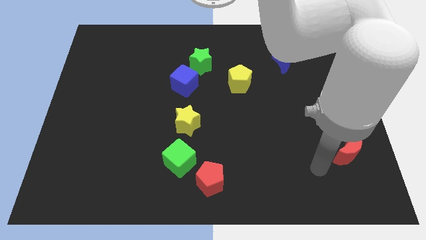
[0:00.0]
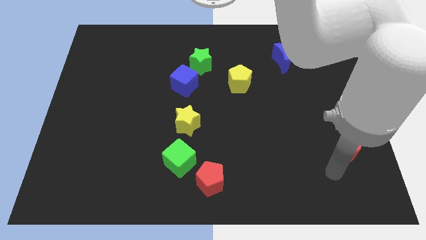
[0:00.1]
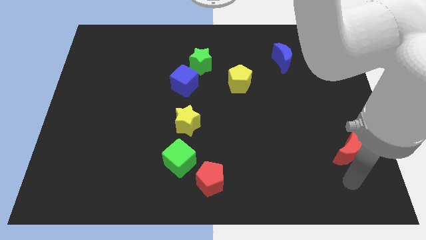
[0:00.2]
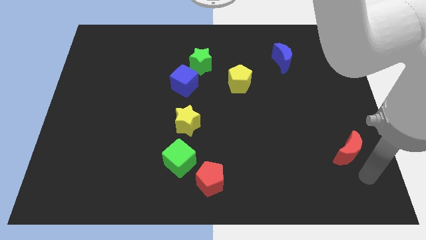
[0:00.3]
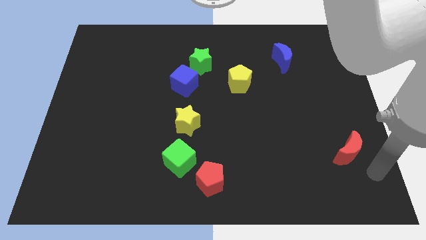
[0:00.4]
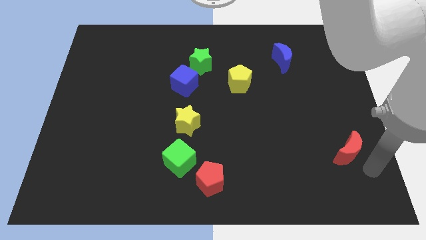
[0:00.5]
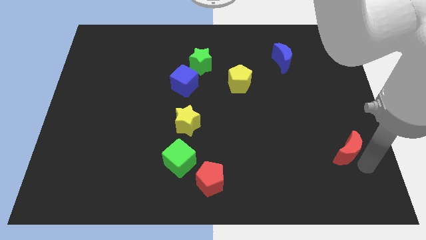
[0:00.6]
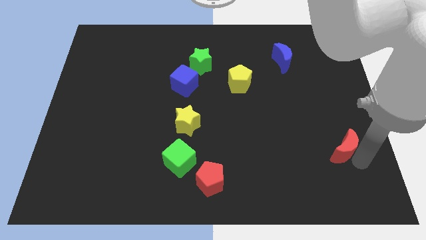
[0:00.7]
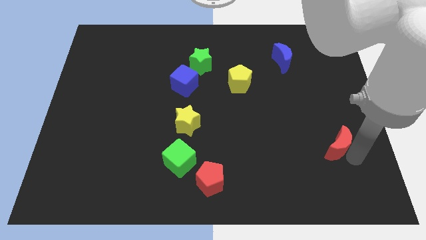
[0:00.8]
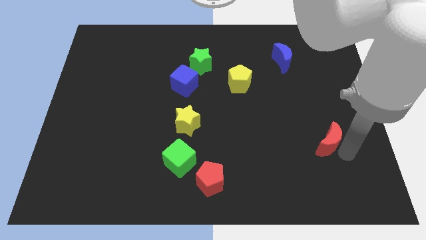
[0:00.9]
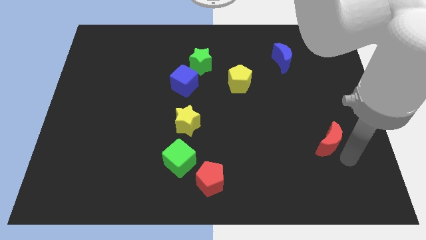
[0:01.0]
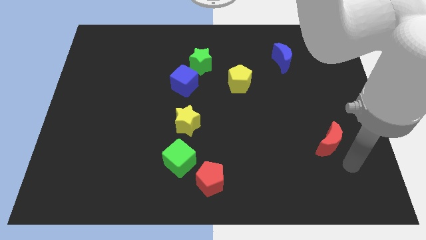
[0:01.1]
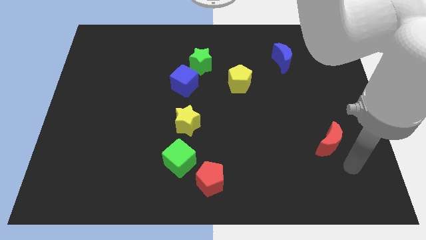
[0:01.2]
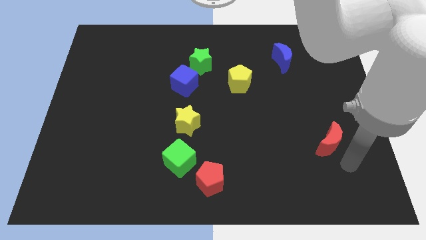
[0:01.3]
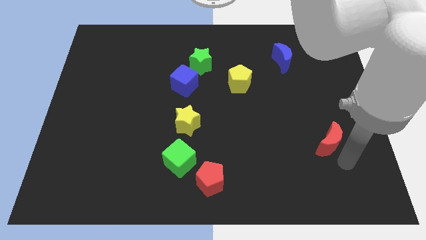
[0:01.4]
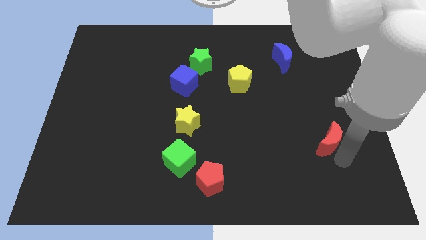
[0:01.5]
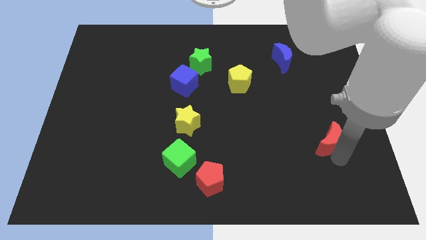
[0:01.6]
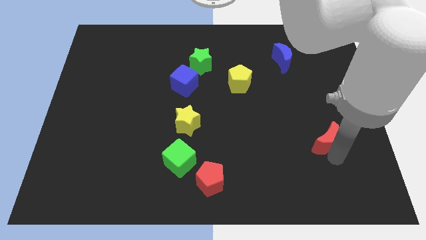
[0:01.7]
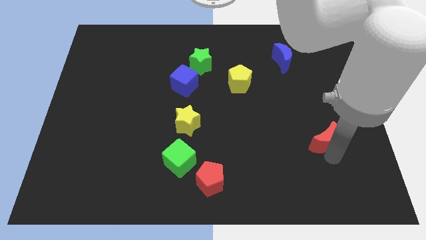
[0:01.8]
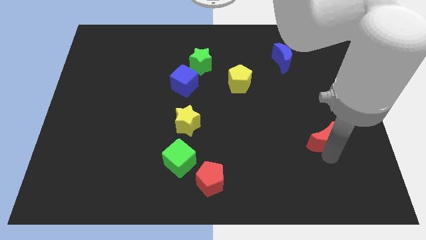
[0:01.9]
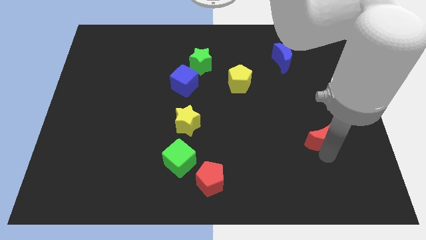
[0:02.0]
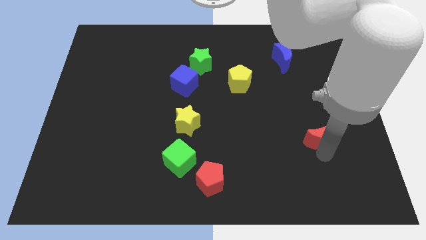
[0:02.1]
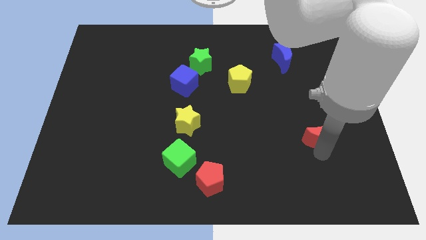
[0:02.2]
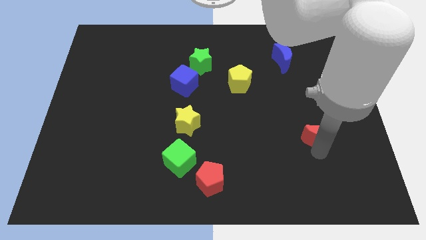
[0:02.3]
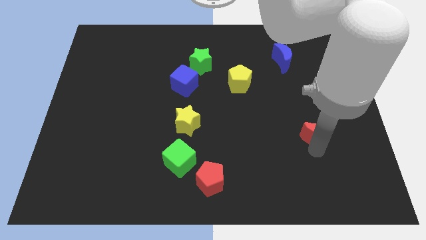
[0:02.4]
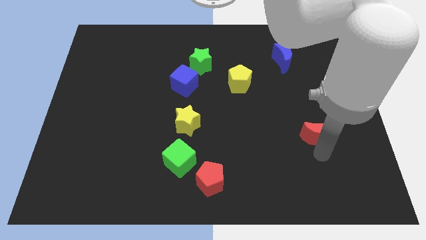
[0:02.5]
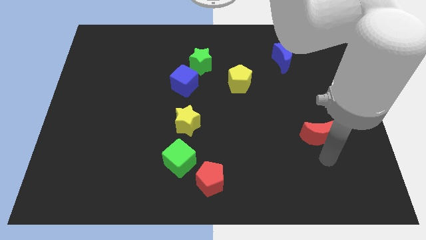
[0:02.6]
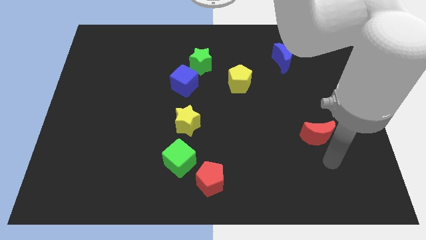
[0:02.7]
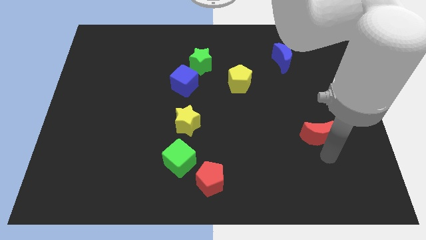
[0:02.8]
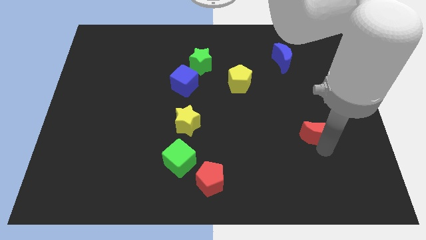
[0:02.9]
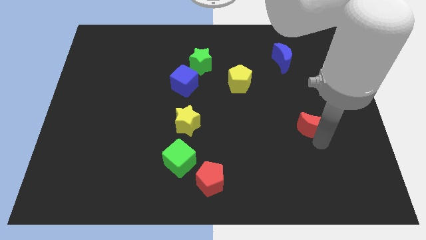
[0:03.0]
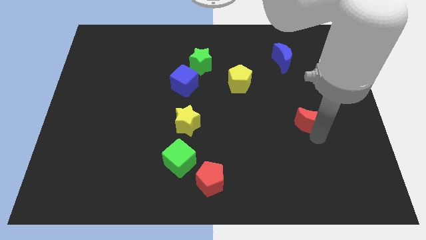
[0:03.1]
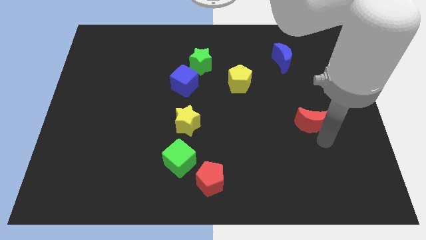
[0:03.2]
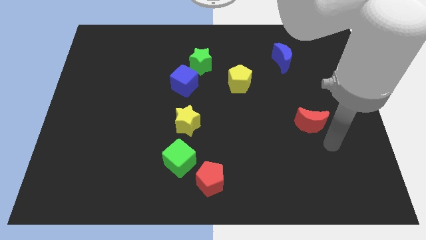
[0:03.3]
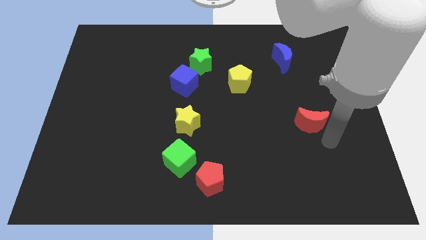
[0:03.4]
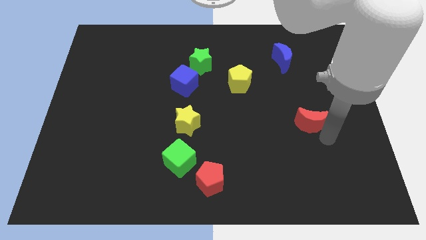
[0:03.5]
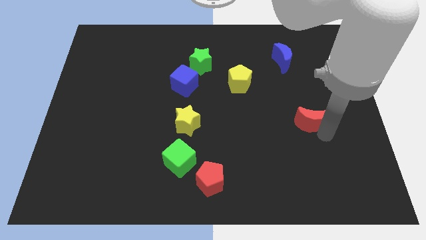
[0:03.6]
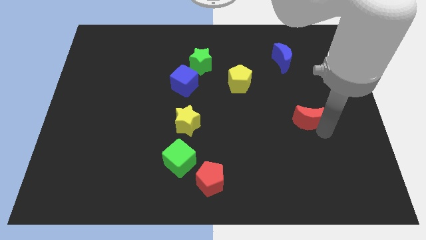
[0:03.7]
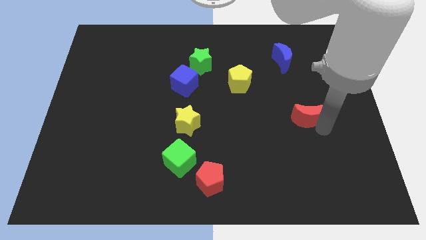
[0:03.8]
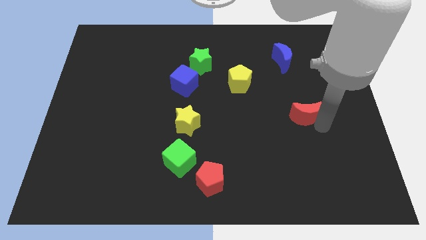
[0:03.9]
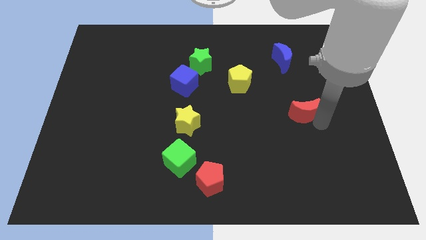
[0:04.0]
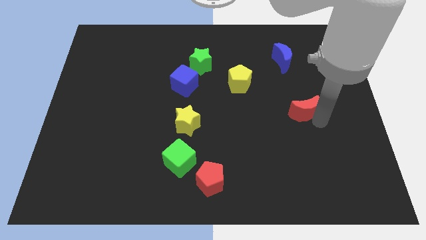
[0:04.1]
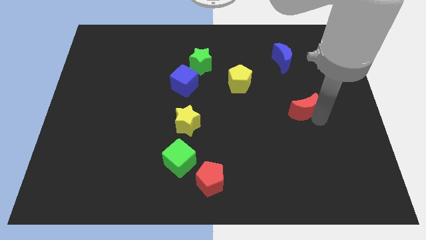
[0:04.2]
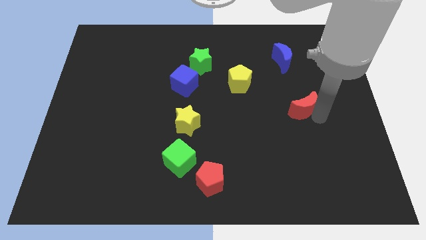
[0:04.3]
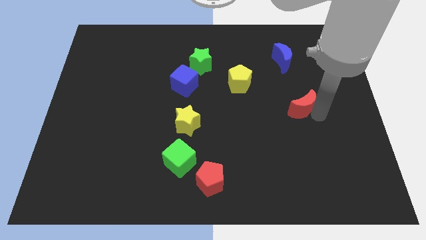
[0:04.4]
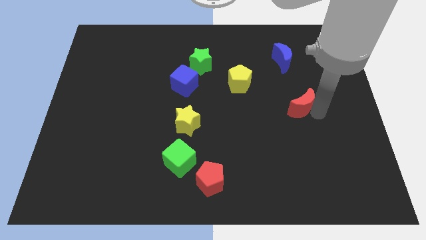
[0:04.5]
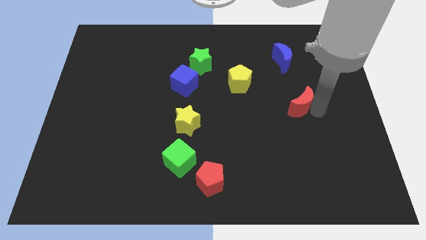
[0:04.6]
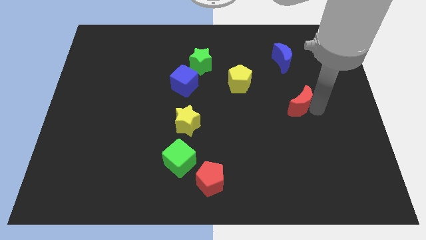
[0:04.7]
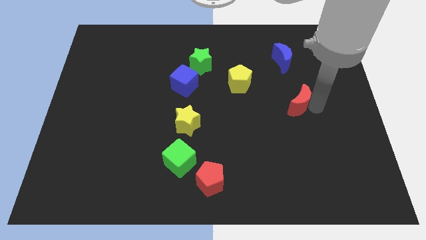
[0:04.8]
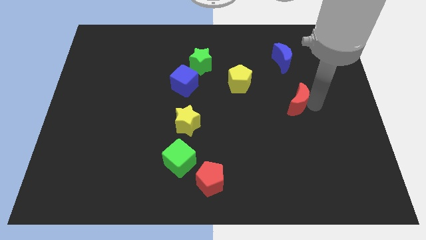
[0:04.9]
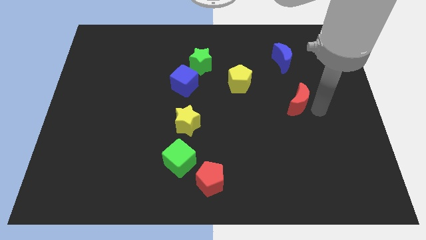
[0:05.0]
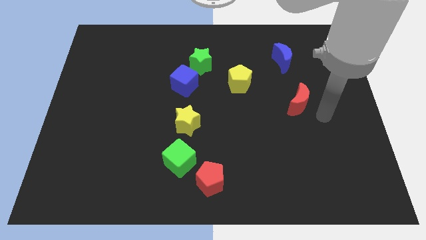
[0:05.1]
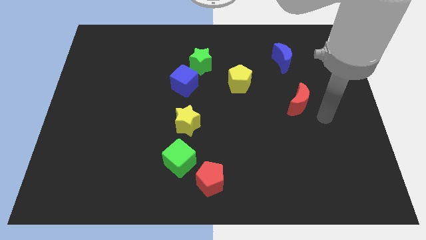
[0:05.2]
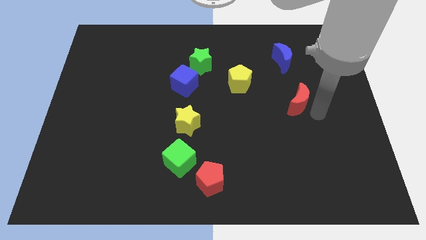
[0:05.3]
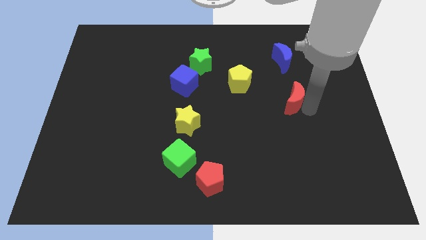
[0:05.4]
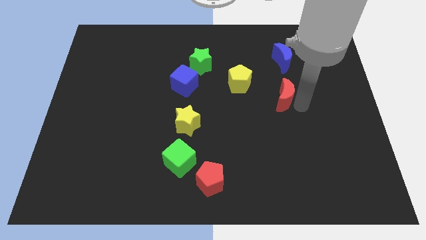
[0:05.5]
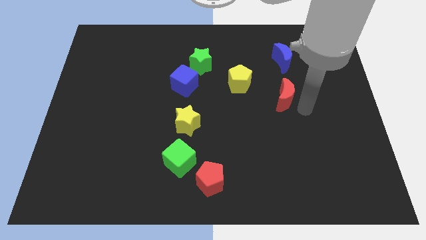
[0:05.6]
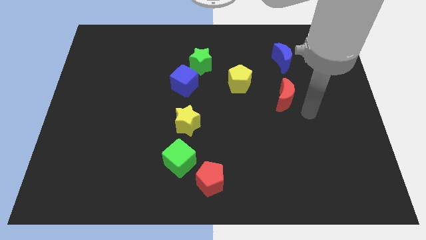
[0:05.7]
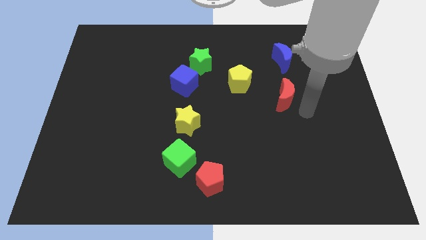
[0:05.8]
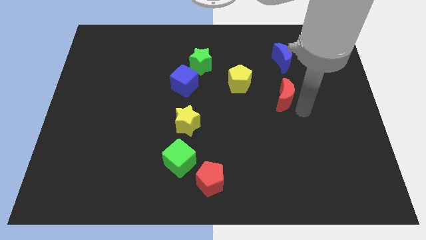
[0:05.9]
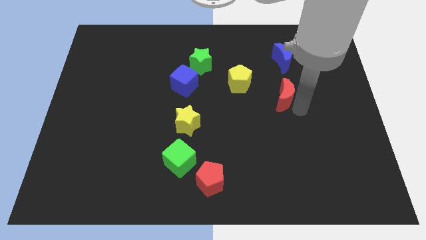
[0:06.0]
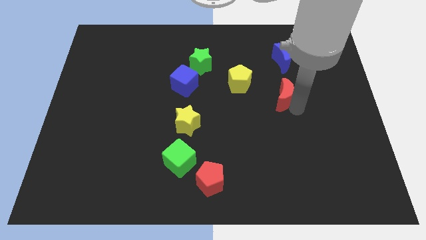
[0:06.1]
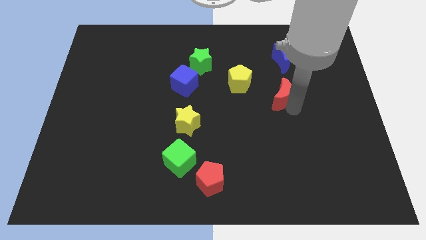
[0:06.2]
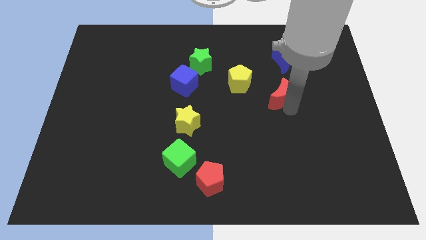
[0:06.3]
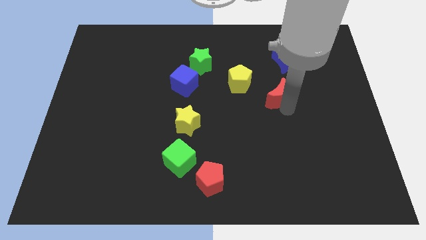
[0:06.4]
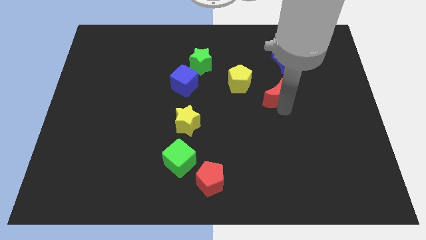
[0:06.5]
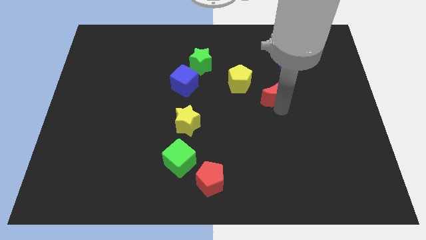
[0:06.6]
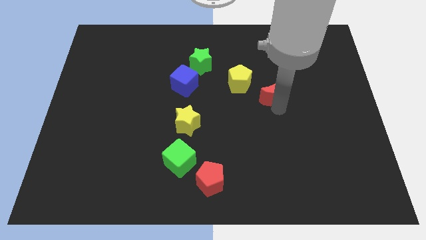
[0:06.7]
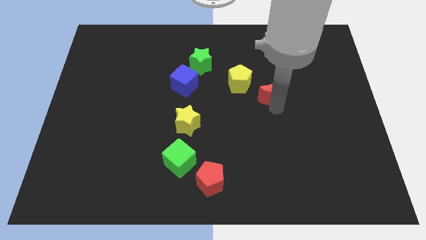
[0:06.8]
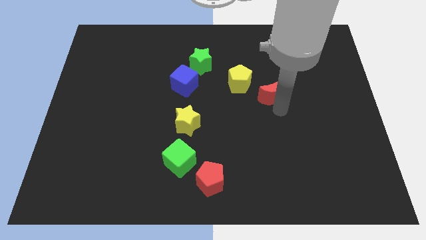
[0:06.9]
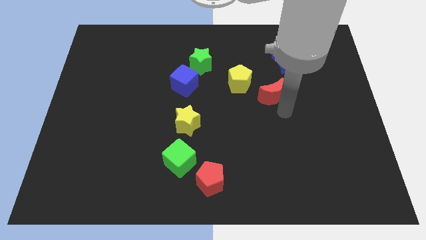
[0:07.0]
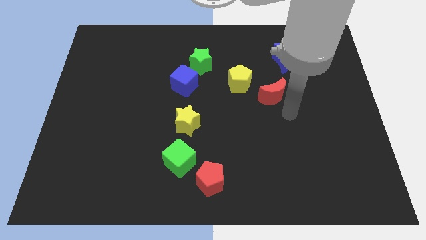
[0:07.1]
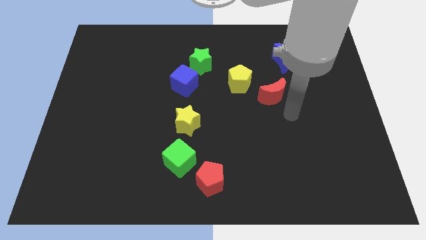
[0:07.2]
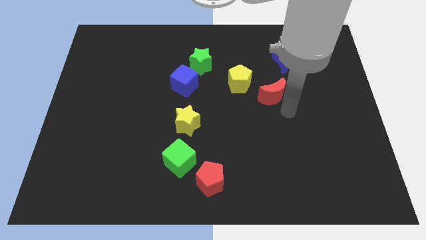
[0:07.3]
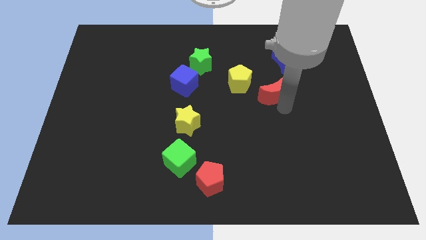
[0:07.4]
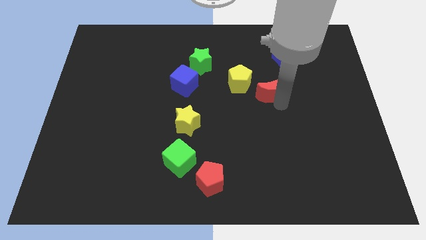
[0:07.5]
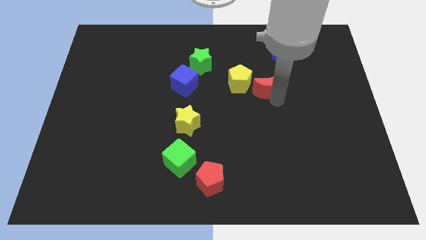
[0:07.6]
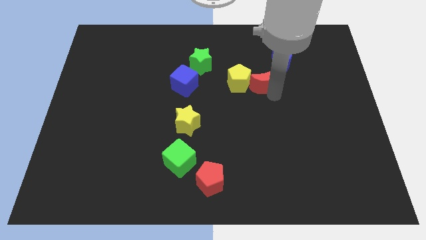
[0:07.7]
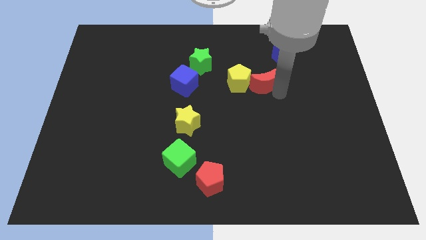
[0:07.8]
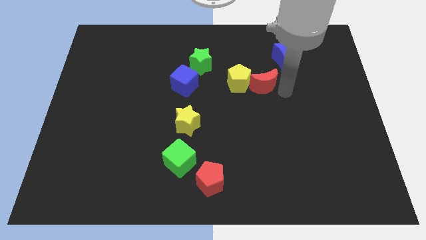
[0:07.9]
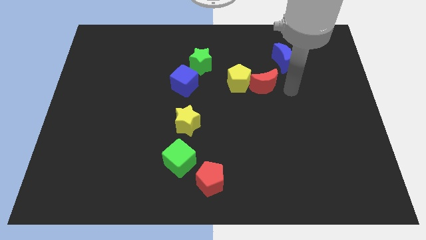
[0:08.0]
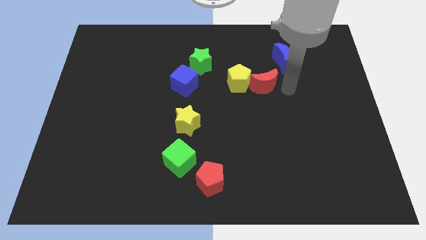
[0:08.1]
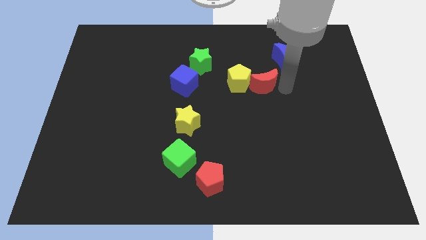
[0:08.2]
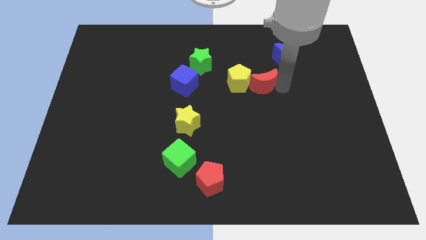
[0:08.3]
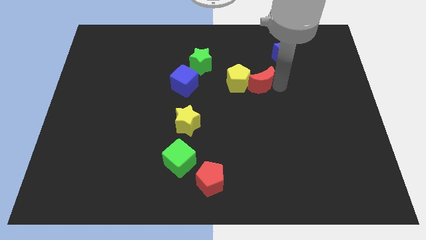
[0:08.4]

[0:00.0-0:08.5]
put the red moon next to the yellow pentagon
